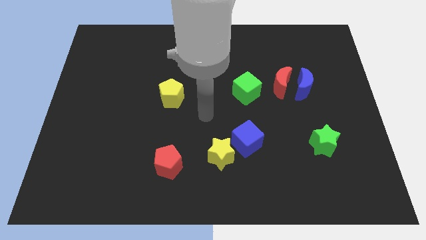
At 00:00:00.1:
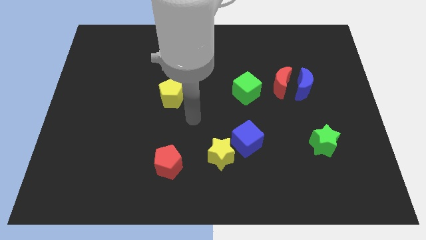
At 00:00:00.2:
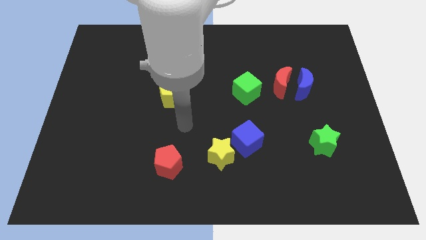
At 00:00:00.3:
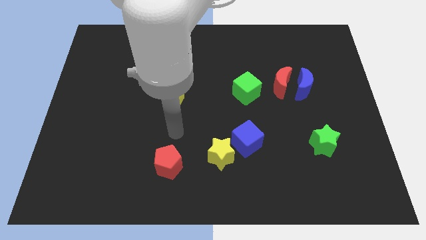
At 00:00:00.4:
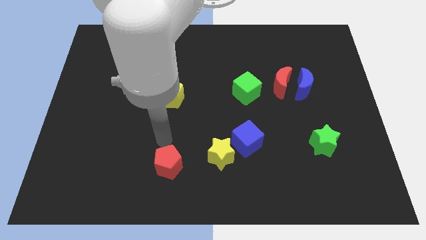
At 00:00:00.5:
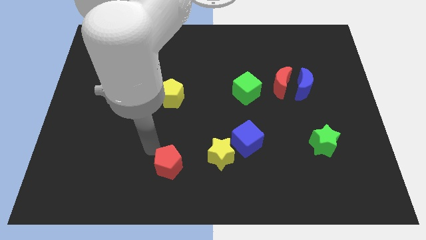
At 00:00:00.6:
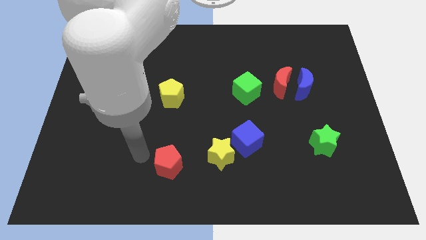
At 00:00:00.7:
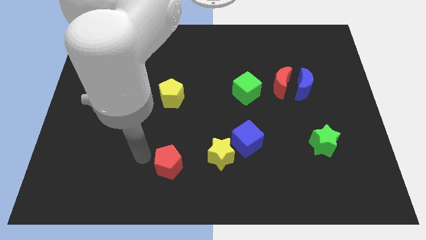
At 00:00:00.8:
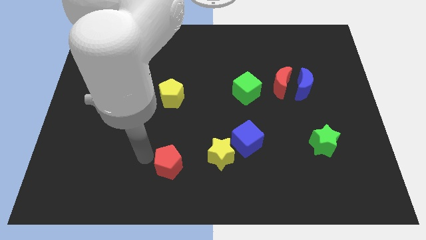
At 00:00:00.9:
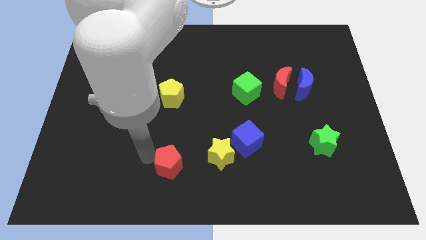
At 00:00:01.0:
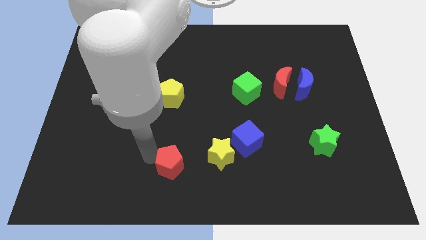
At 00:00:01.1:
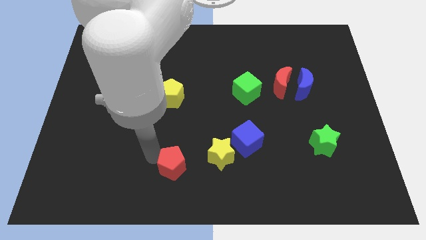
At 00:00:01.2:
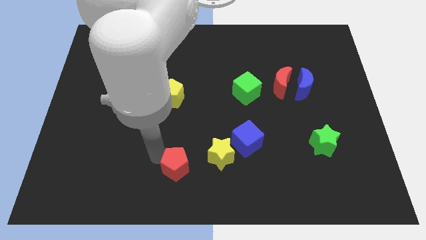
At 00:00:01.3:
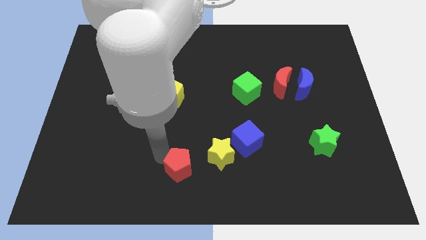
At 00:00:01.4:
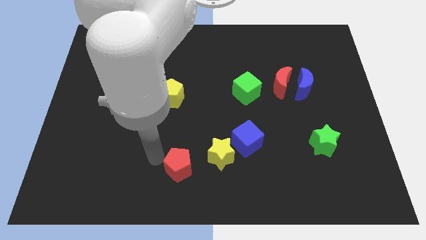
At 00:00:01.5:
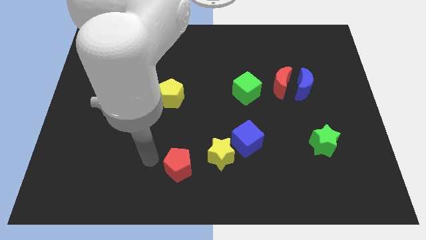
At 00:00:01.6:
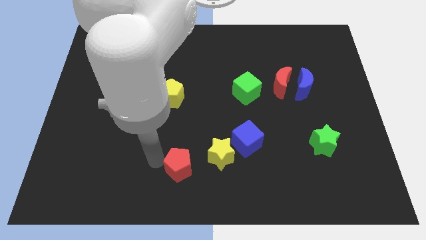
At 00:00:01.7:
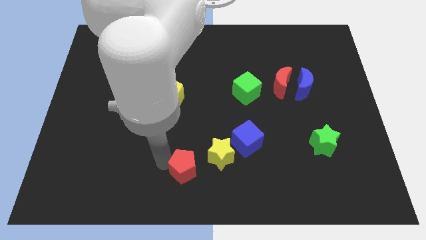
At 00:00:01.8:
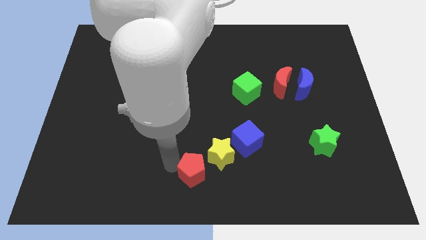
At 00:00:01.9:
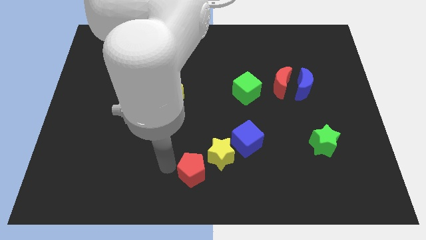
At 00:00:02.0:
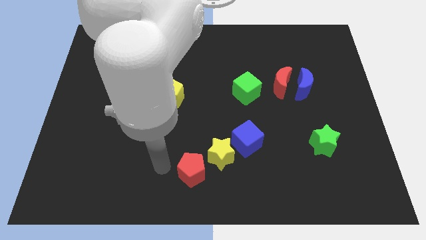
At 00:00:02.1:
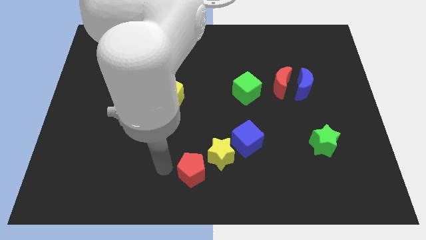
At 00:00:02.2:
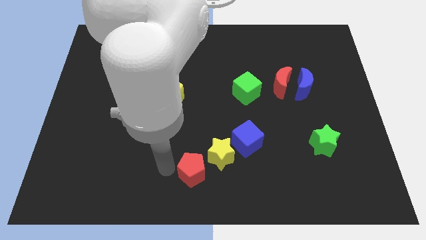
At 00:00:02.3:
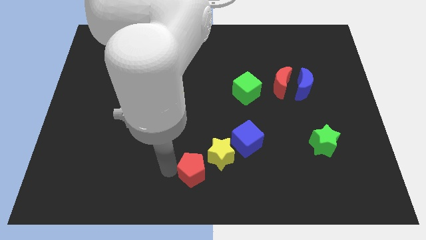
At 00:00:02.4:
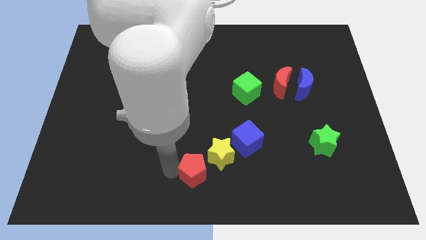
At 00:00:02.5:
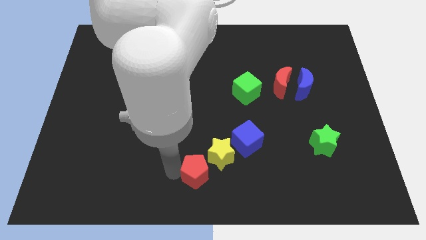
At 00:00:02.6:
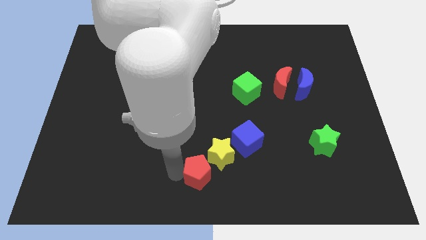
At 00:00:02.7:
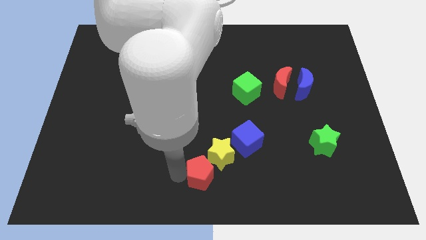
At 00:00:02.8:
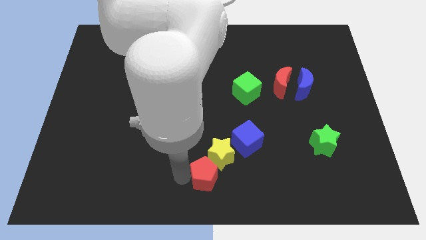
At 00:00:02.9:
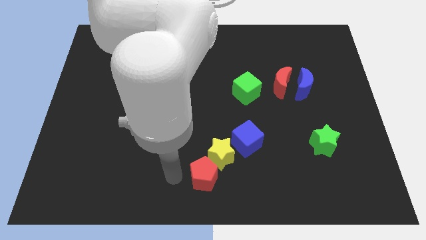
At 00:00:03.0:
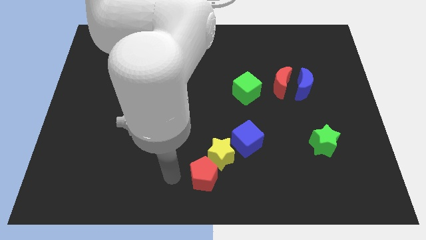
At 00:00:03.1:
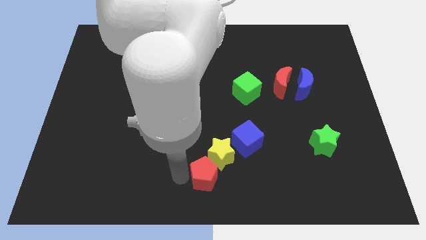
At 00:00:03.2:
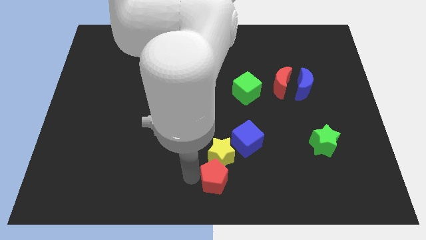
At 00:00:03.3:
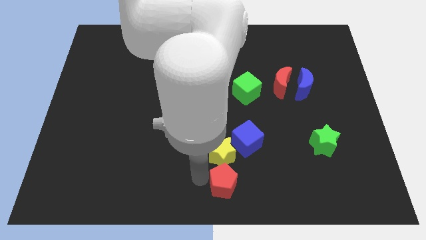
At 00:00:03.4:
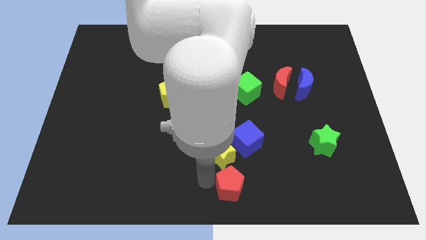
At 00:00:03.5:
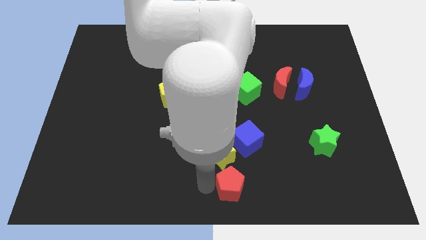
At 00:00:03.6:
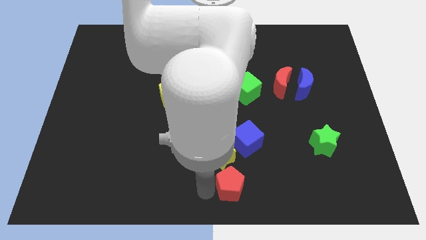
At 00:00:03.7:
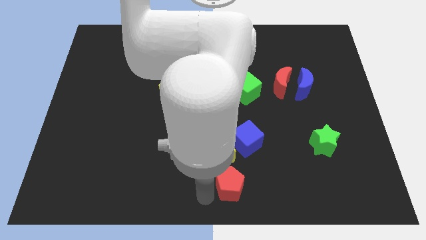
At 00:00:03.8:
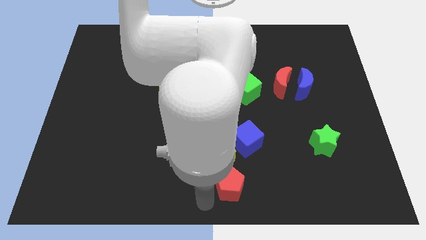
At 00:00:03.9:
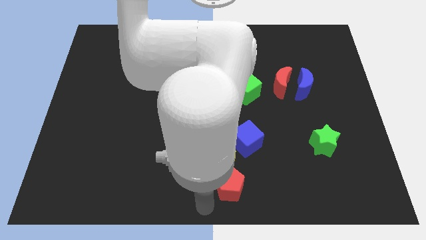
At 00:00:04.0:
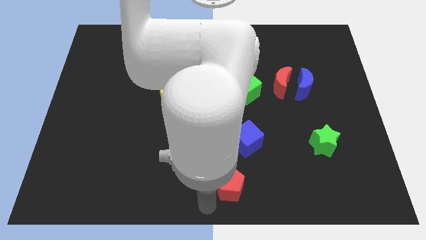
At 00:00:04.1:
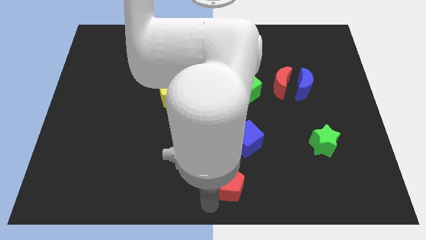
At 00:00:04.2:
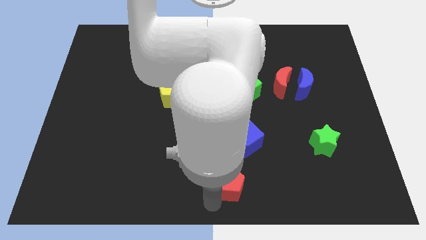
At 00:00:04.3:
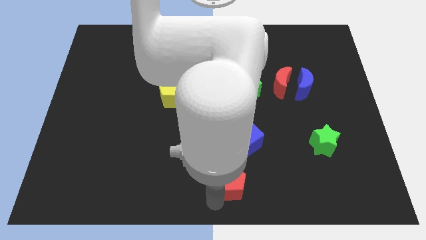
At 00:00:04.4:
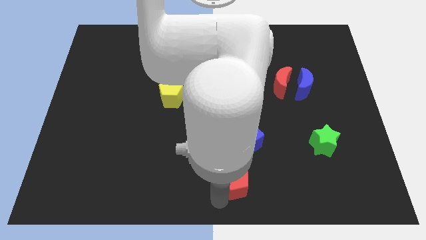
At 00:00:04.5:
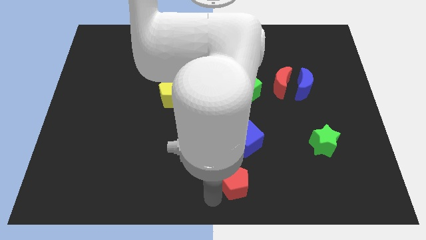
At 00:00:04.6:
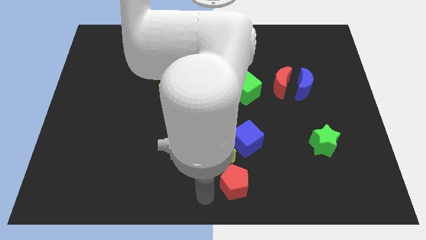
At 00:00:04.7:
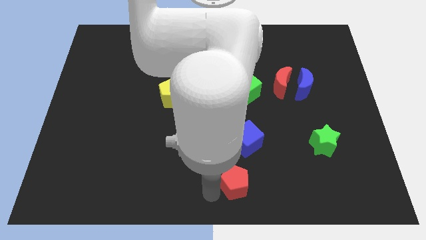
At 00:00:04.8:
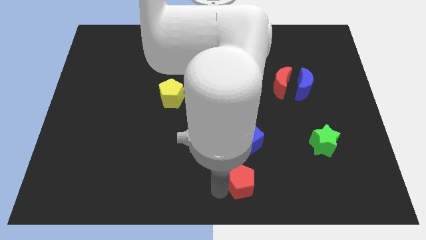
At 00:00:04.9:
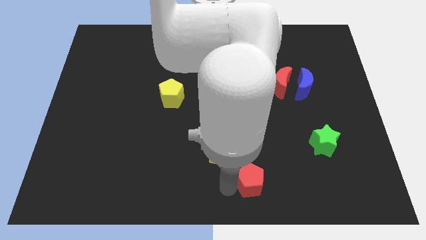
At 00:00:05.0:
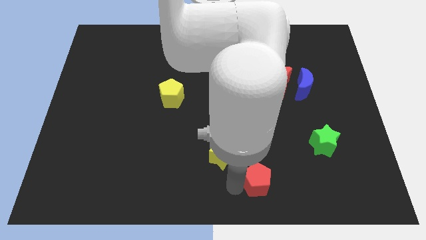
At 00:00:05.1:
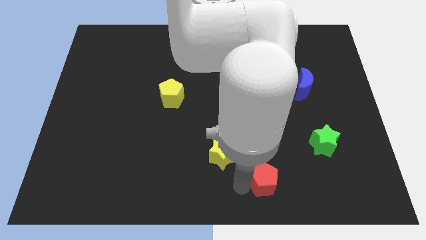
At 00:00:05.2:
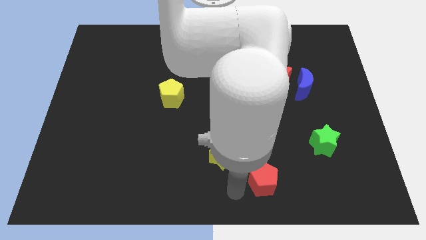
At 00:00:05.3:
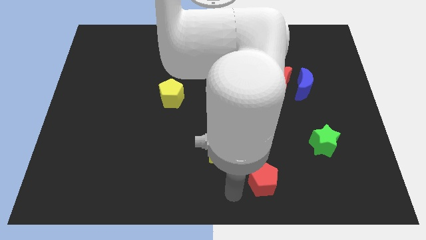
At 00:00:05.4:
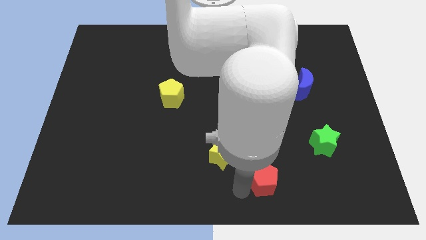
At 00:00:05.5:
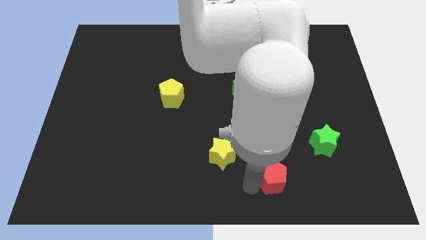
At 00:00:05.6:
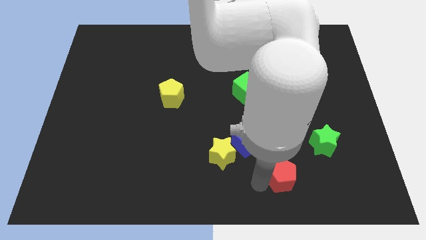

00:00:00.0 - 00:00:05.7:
move the red pentagon to the bottom left side of the green star

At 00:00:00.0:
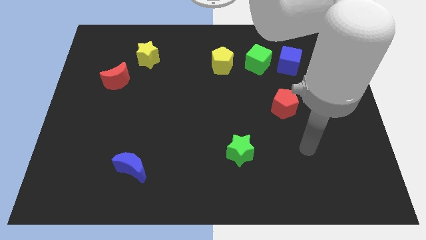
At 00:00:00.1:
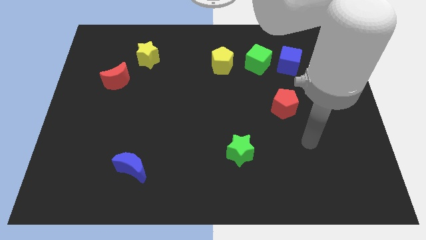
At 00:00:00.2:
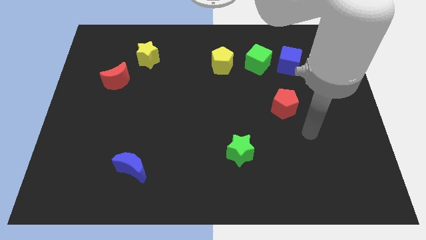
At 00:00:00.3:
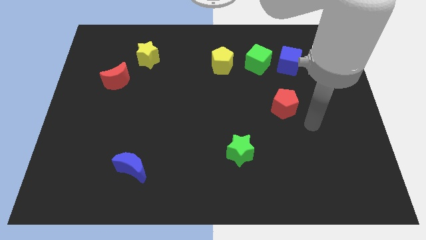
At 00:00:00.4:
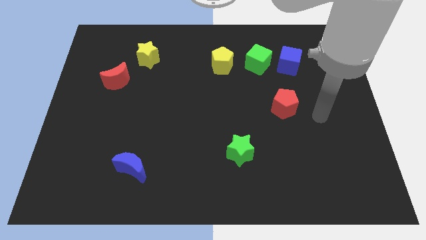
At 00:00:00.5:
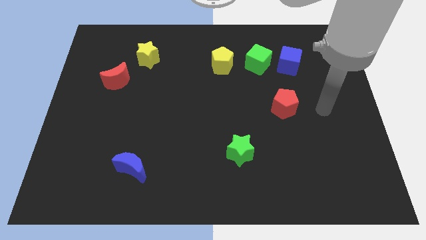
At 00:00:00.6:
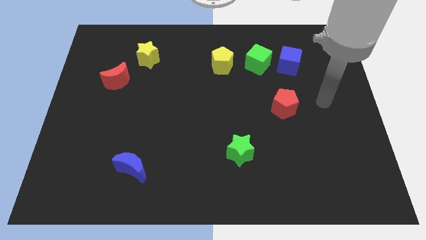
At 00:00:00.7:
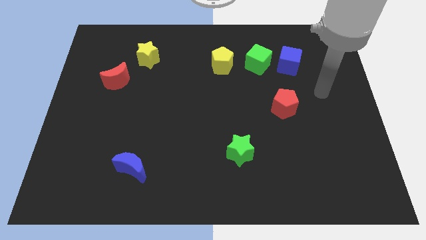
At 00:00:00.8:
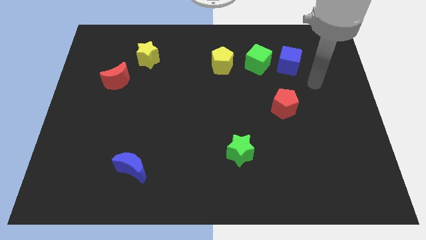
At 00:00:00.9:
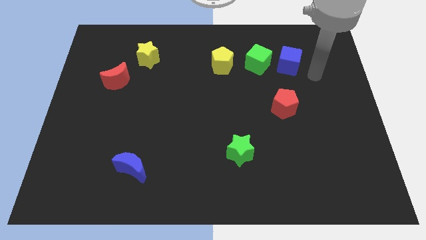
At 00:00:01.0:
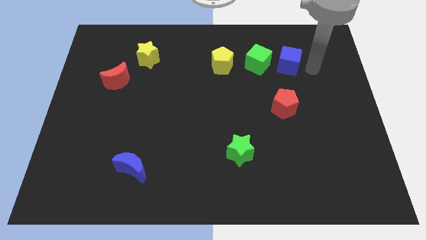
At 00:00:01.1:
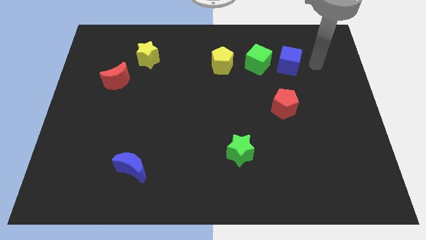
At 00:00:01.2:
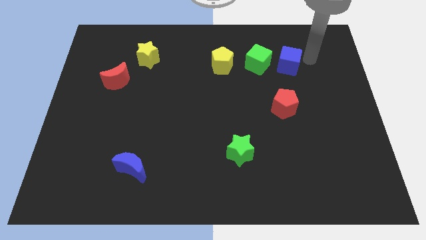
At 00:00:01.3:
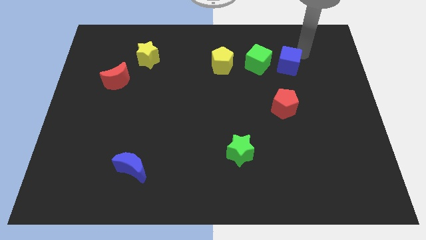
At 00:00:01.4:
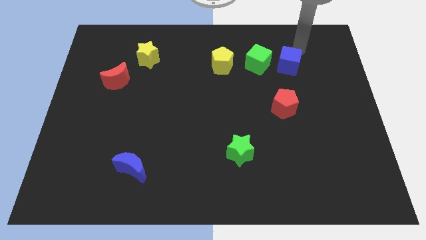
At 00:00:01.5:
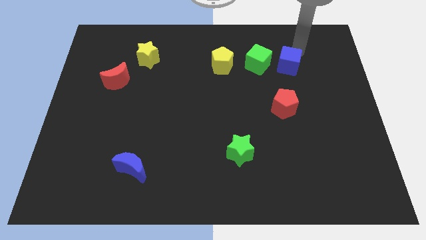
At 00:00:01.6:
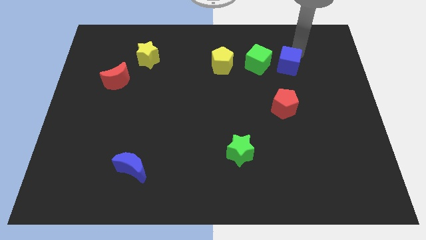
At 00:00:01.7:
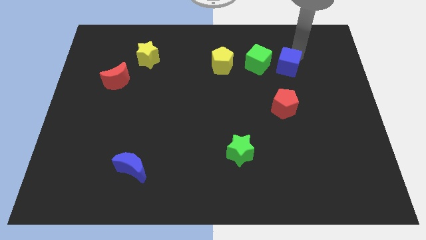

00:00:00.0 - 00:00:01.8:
push the blue cube to the bottom right side of the green cube
